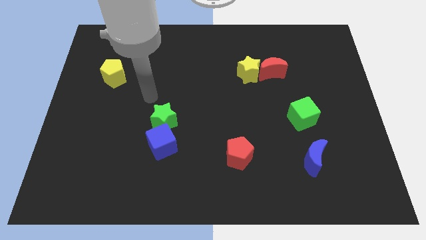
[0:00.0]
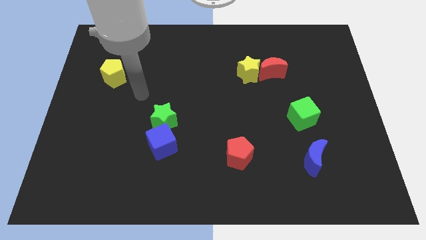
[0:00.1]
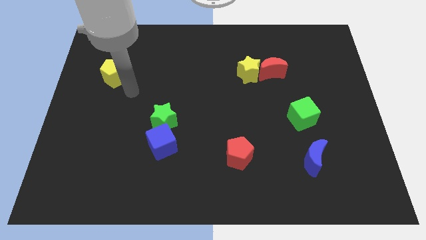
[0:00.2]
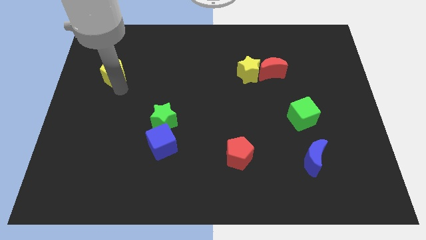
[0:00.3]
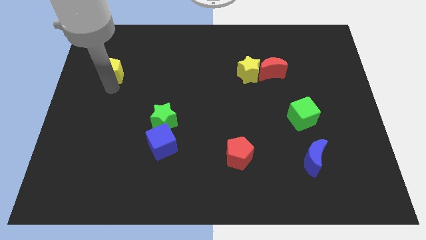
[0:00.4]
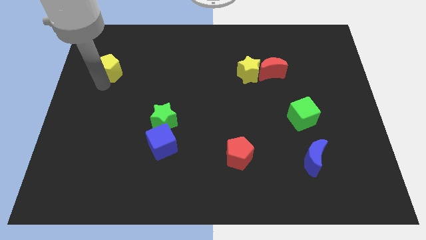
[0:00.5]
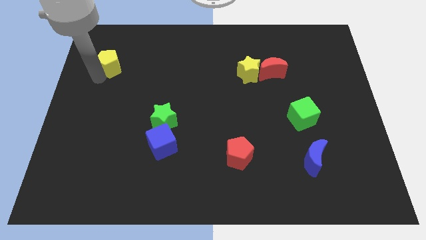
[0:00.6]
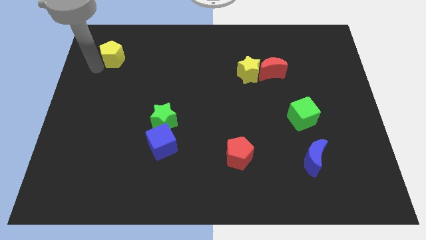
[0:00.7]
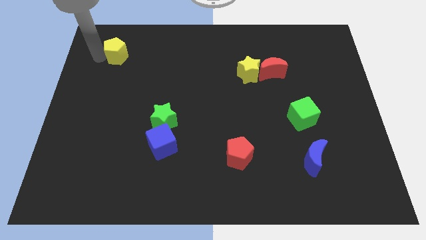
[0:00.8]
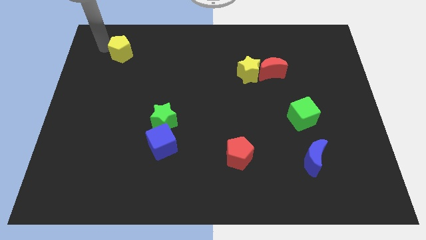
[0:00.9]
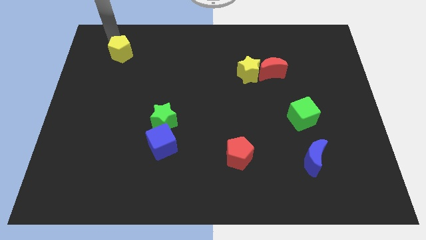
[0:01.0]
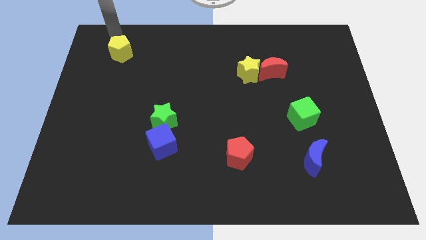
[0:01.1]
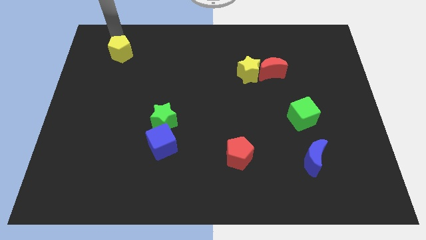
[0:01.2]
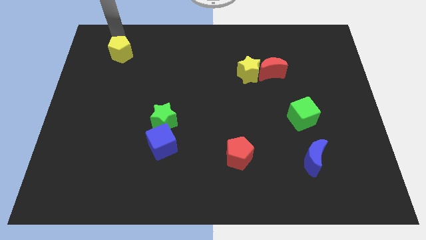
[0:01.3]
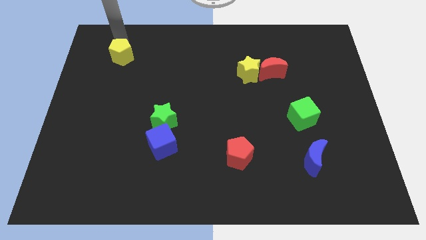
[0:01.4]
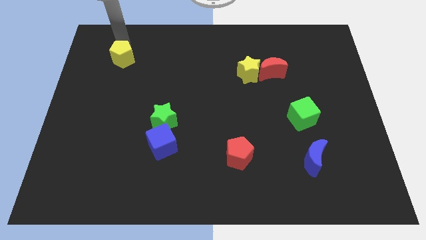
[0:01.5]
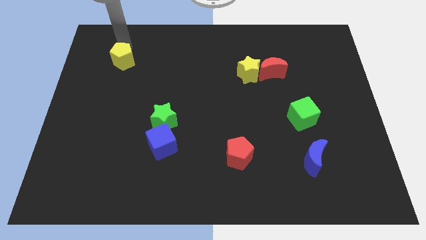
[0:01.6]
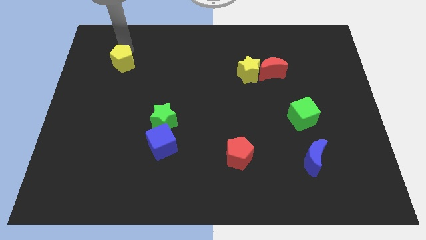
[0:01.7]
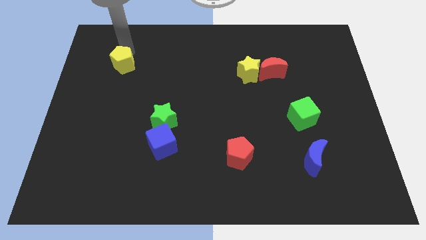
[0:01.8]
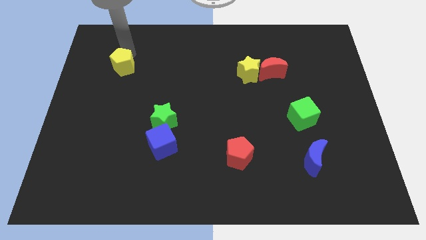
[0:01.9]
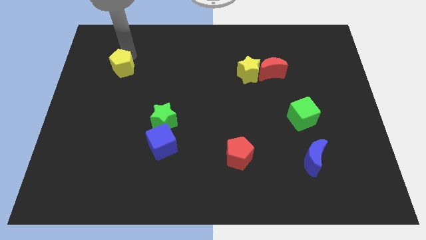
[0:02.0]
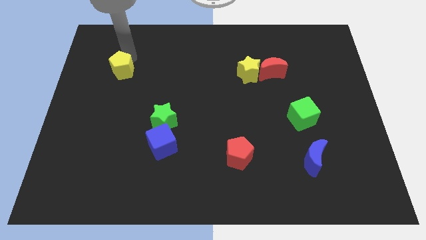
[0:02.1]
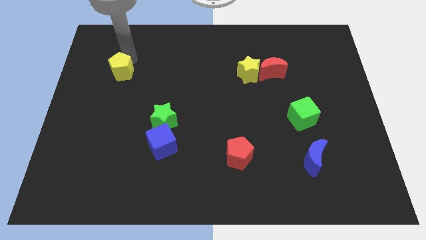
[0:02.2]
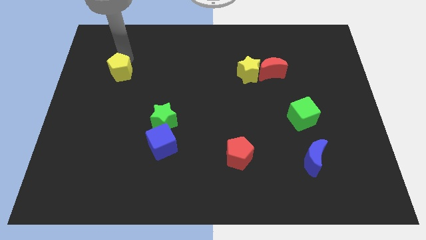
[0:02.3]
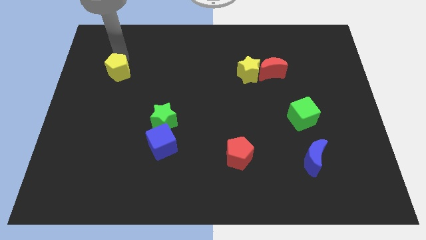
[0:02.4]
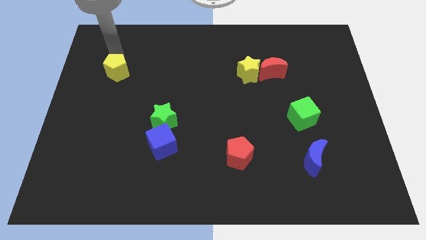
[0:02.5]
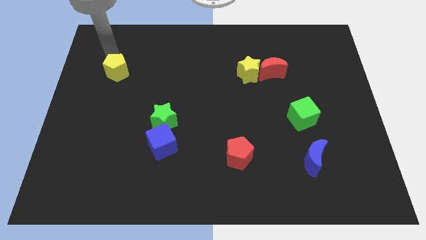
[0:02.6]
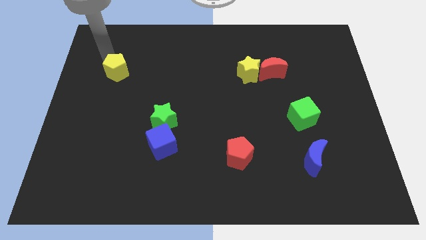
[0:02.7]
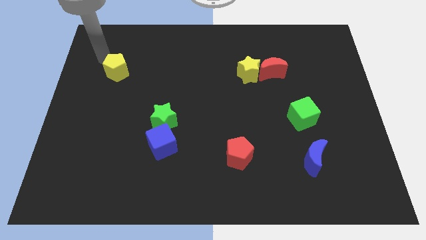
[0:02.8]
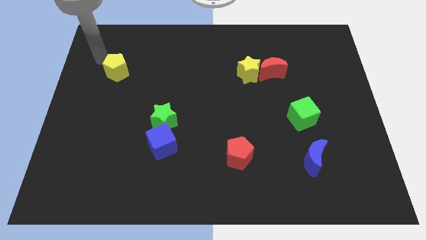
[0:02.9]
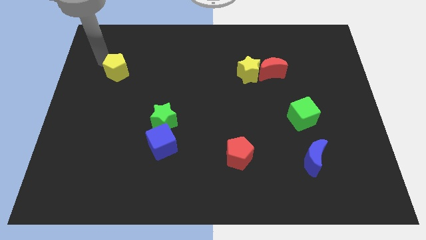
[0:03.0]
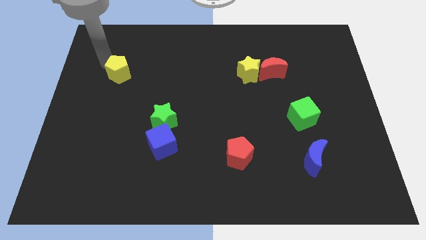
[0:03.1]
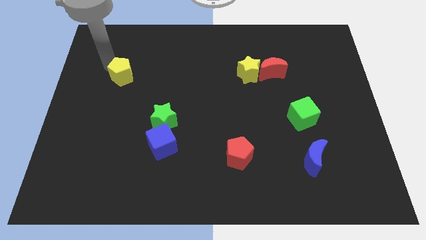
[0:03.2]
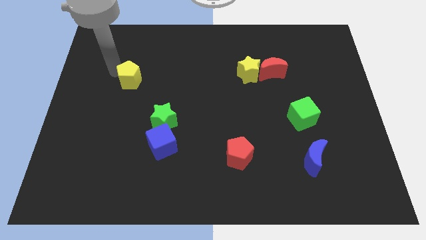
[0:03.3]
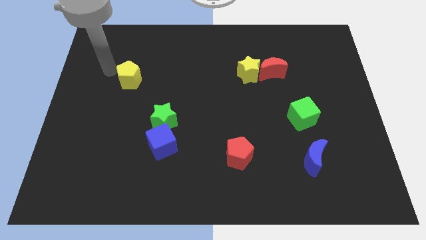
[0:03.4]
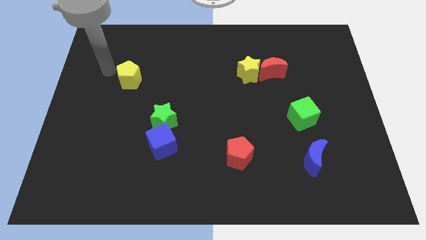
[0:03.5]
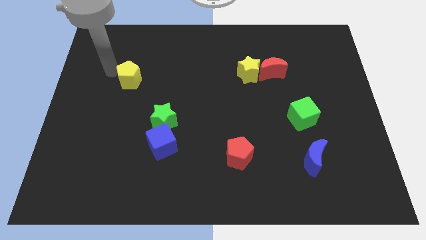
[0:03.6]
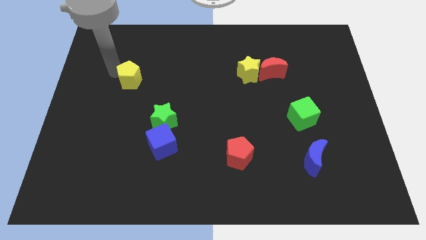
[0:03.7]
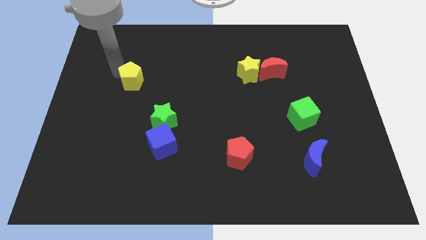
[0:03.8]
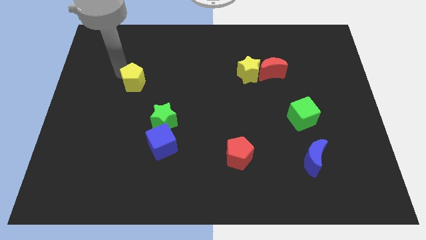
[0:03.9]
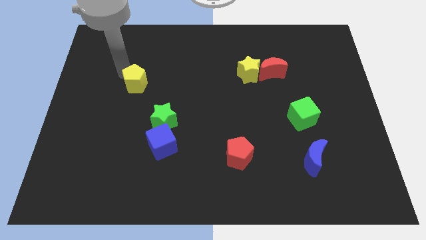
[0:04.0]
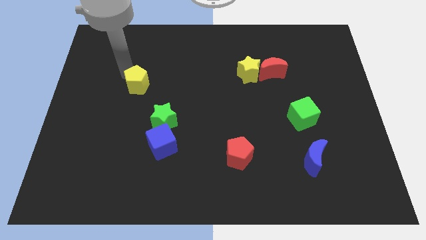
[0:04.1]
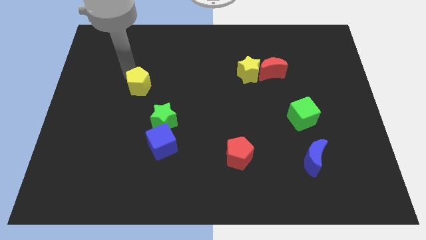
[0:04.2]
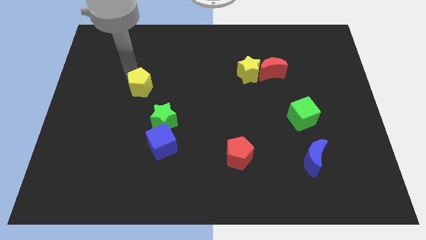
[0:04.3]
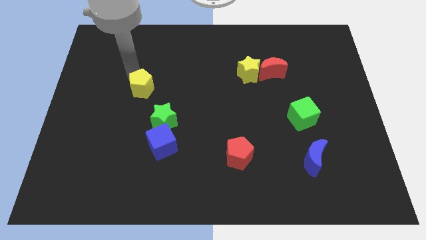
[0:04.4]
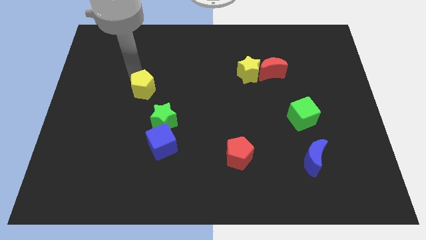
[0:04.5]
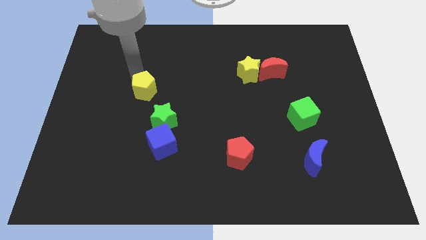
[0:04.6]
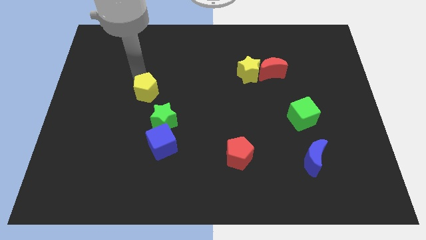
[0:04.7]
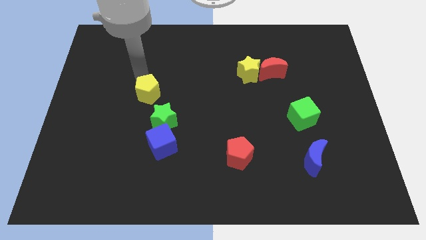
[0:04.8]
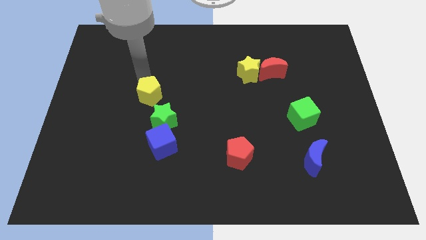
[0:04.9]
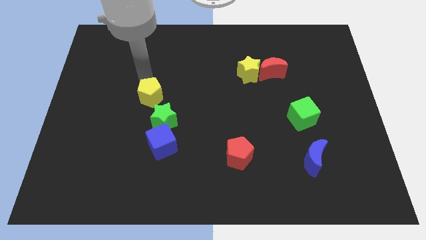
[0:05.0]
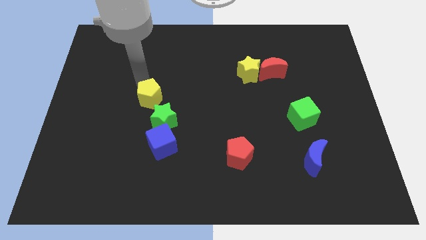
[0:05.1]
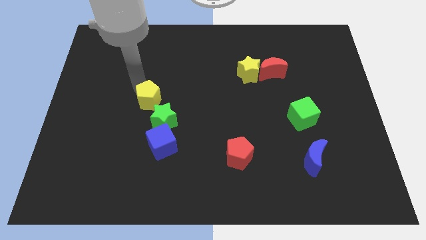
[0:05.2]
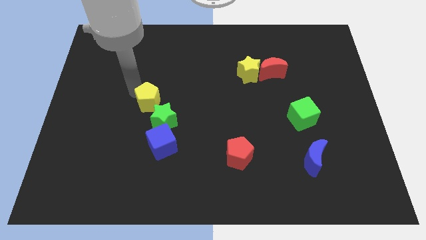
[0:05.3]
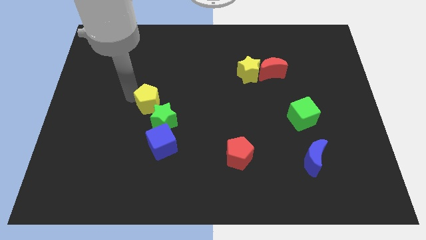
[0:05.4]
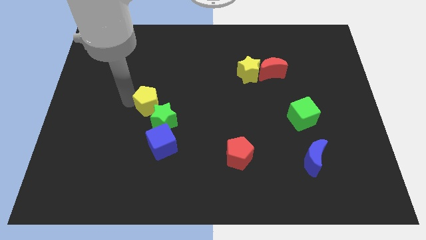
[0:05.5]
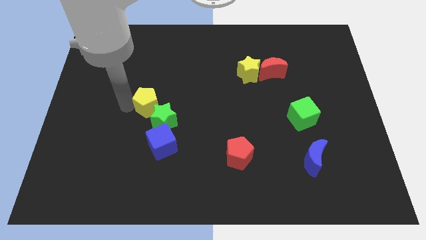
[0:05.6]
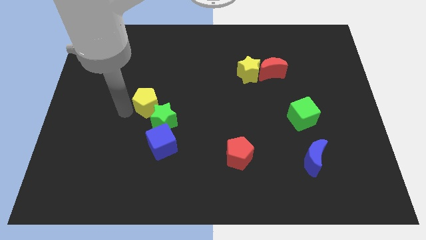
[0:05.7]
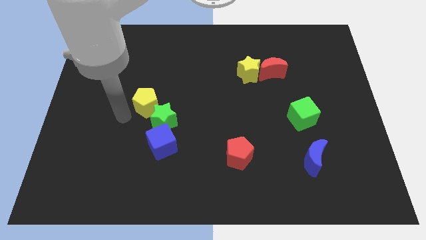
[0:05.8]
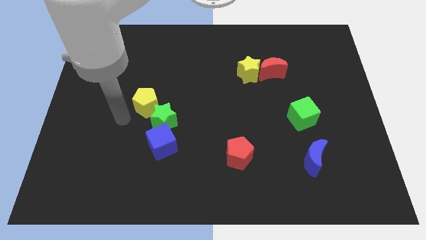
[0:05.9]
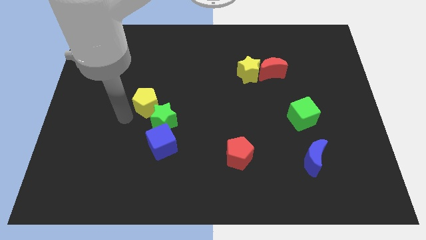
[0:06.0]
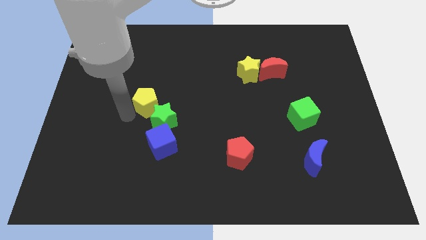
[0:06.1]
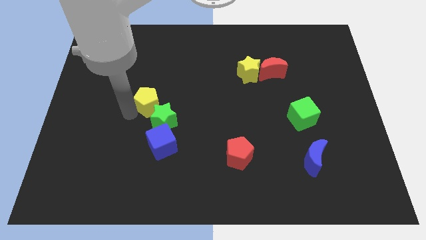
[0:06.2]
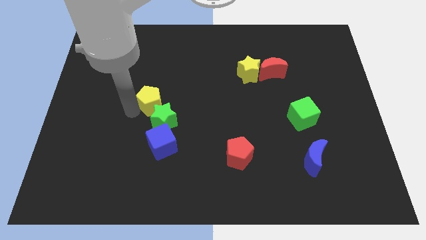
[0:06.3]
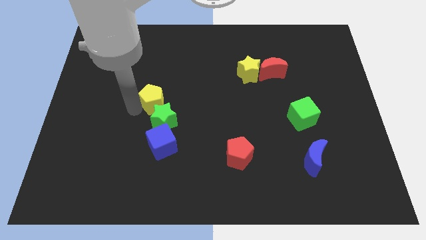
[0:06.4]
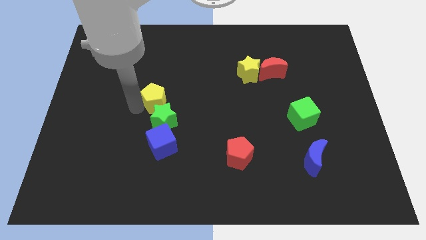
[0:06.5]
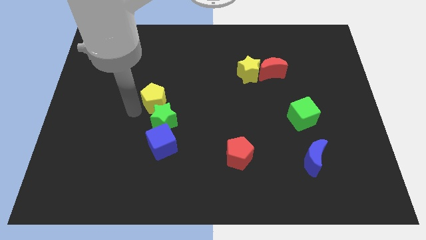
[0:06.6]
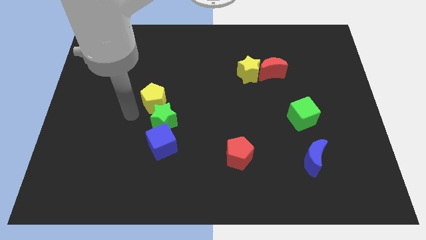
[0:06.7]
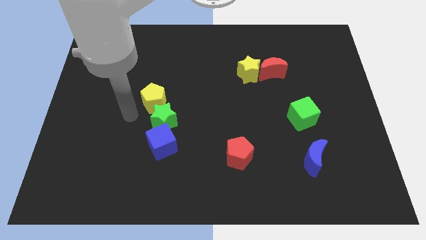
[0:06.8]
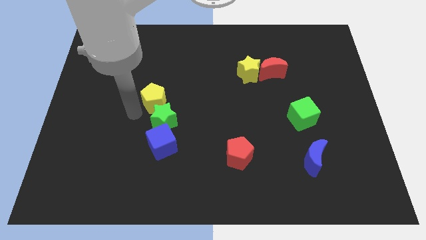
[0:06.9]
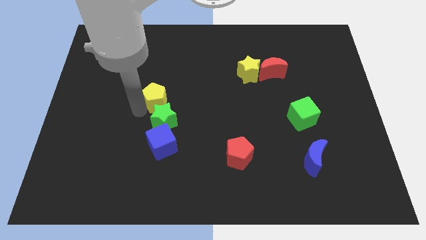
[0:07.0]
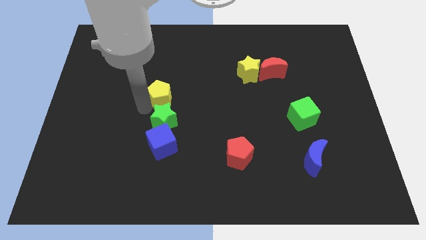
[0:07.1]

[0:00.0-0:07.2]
put the yellow pentagon to the center
